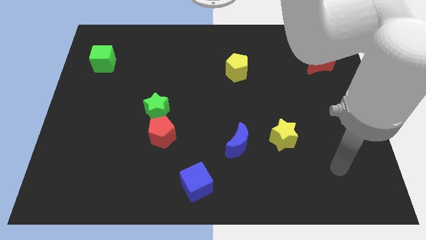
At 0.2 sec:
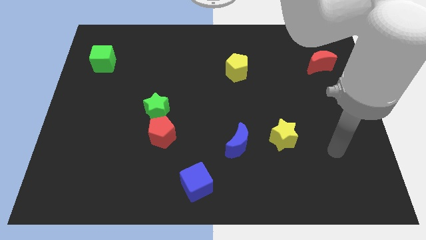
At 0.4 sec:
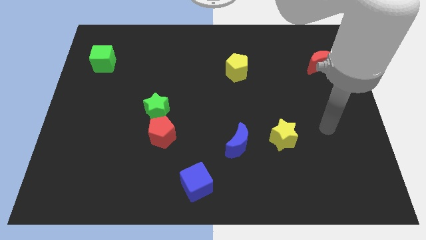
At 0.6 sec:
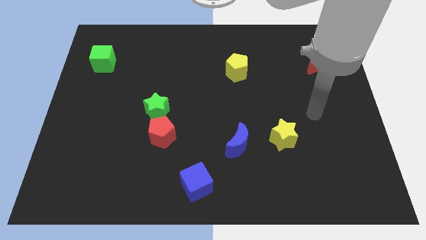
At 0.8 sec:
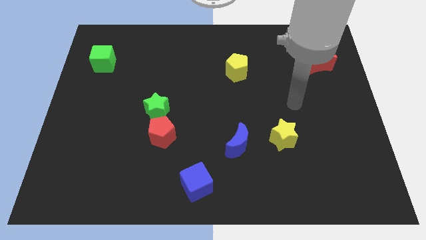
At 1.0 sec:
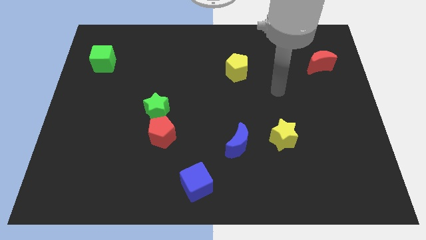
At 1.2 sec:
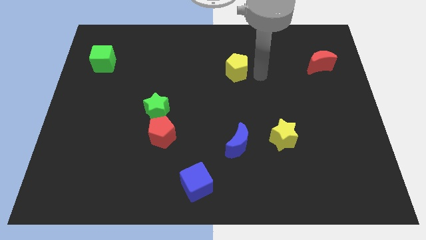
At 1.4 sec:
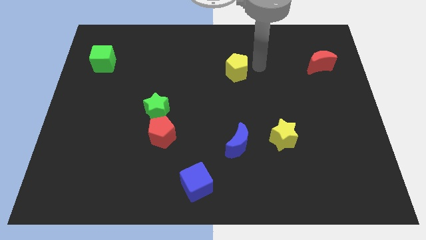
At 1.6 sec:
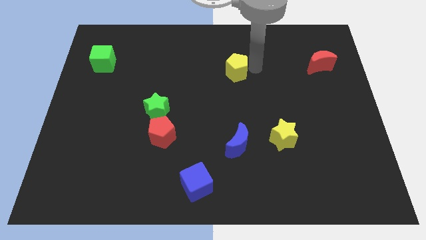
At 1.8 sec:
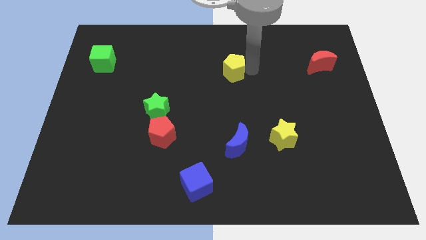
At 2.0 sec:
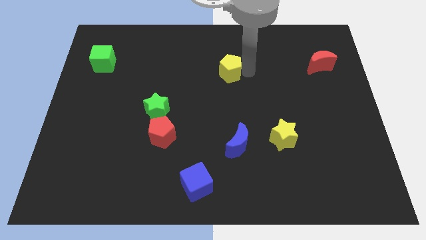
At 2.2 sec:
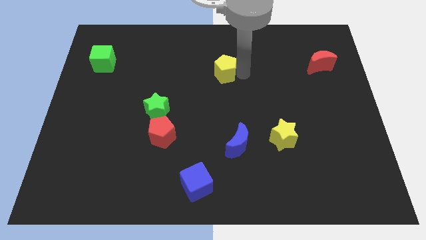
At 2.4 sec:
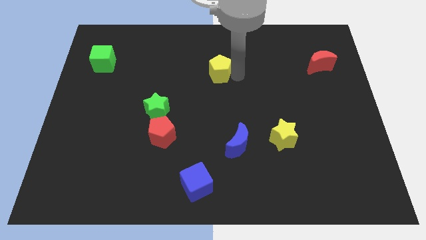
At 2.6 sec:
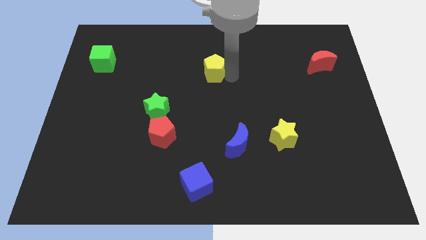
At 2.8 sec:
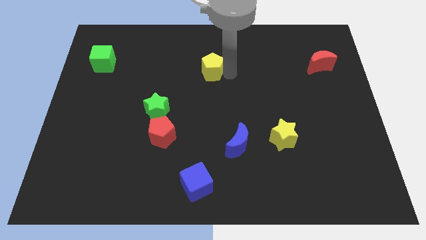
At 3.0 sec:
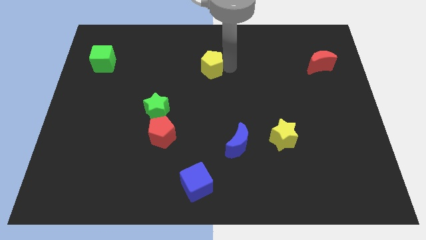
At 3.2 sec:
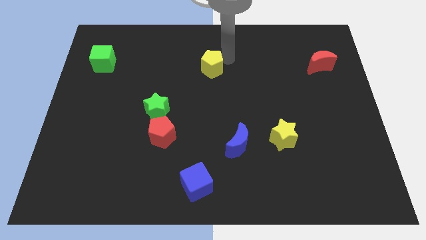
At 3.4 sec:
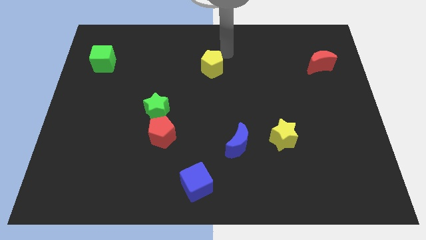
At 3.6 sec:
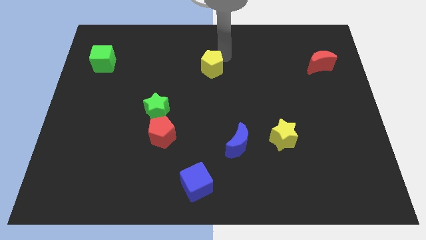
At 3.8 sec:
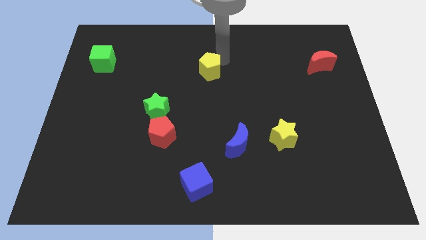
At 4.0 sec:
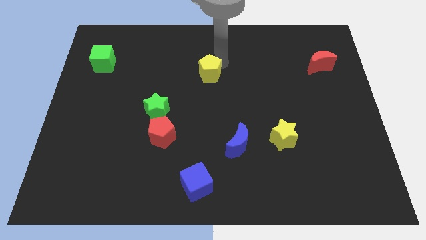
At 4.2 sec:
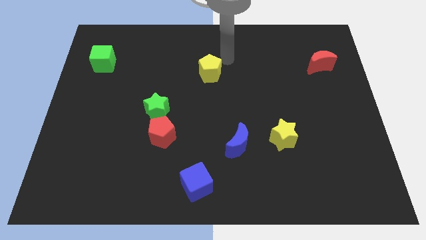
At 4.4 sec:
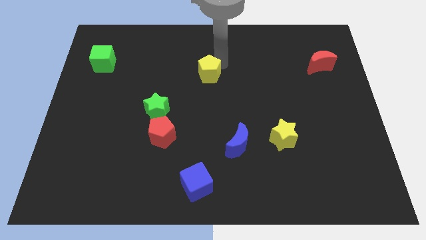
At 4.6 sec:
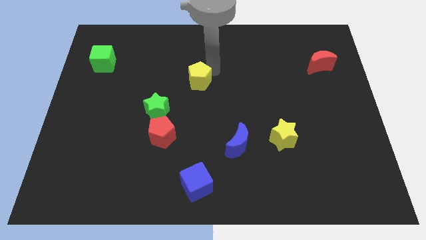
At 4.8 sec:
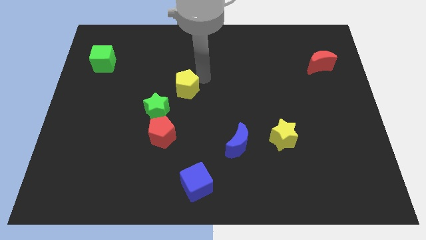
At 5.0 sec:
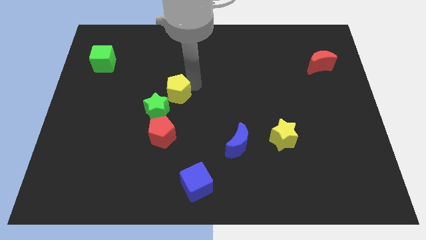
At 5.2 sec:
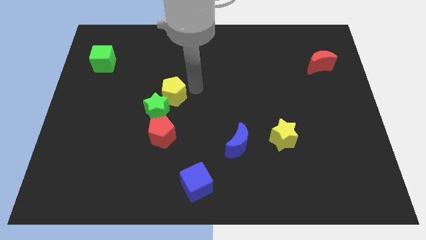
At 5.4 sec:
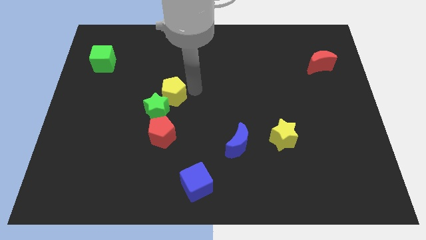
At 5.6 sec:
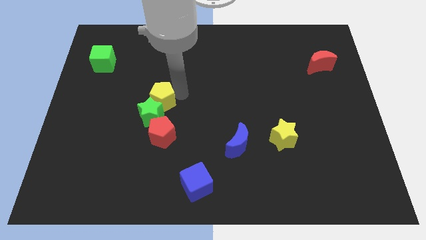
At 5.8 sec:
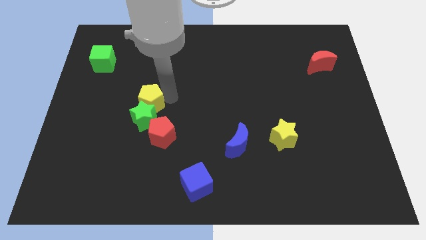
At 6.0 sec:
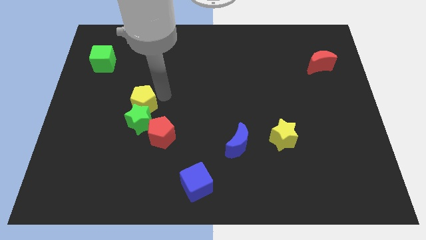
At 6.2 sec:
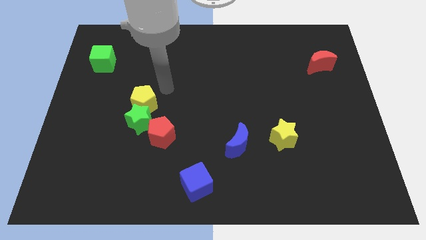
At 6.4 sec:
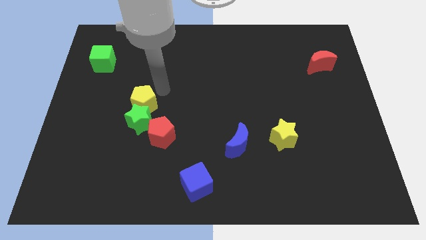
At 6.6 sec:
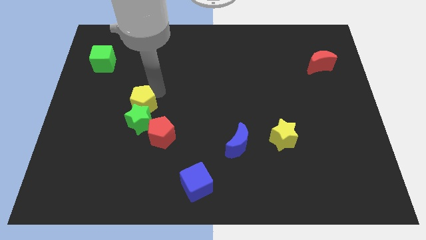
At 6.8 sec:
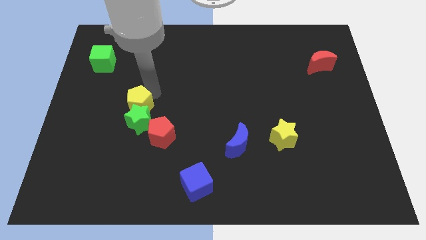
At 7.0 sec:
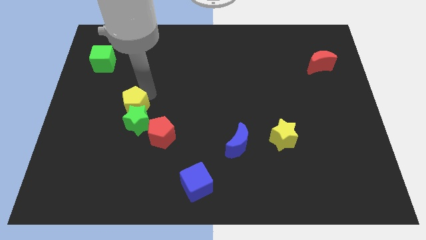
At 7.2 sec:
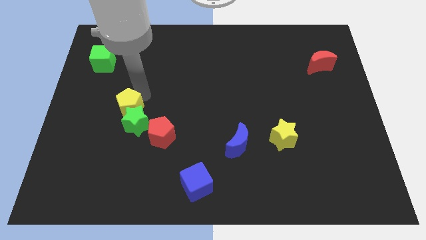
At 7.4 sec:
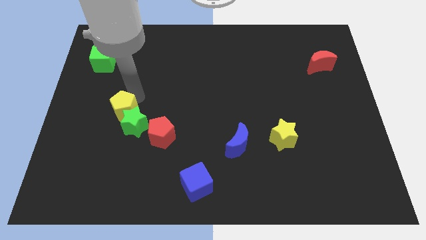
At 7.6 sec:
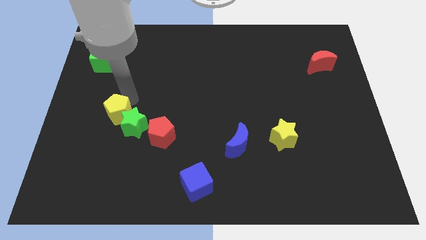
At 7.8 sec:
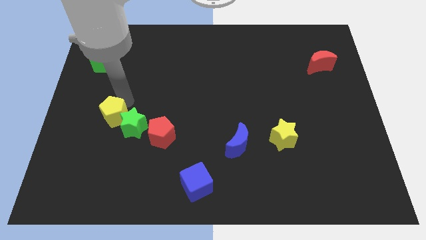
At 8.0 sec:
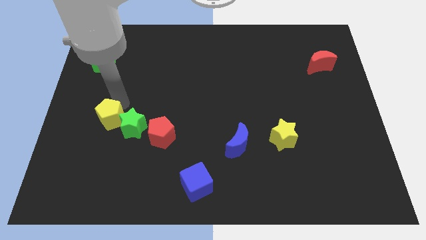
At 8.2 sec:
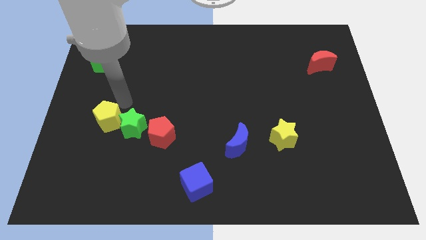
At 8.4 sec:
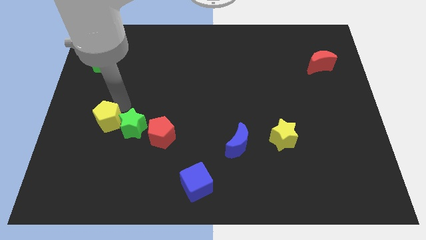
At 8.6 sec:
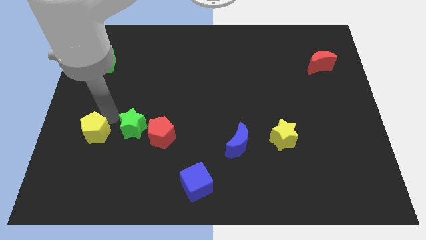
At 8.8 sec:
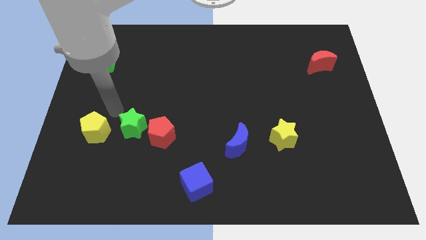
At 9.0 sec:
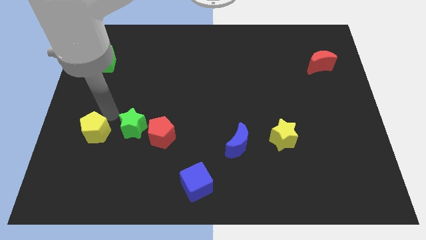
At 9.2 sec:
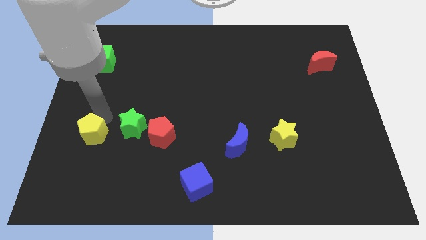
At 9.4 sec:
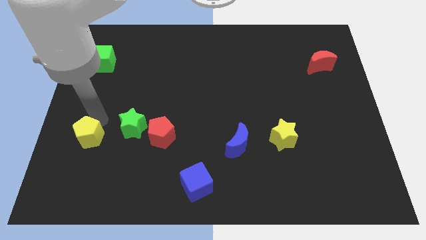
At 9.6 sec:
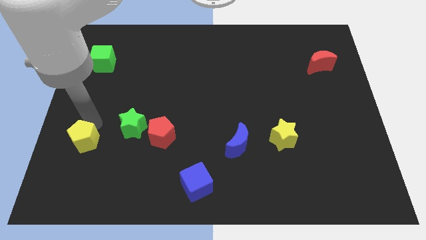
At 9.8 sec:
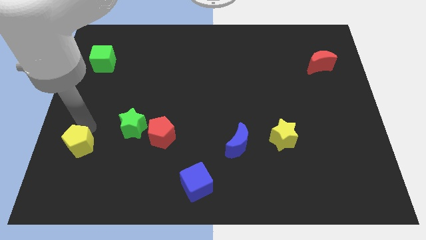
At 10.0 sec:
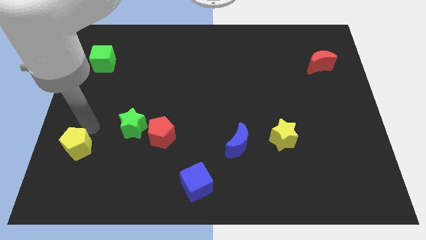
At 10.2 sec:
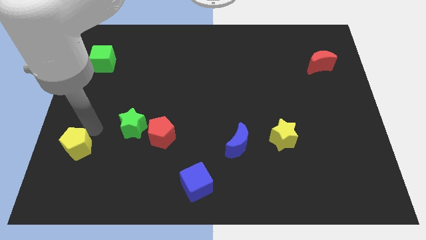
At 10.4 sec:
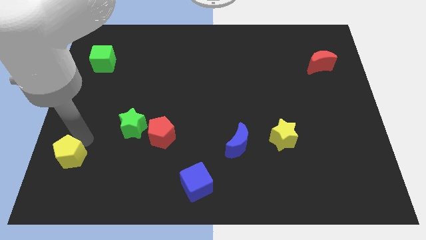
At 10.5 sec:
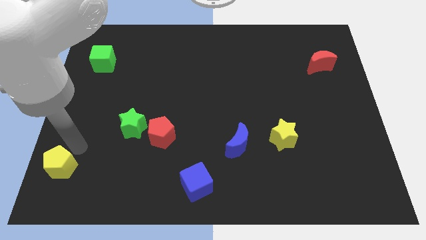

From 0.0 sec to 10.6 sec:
push the yellow pentagon to the bottom left of the board

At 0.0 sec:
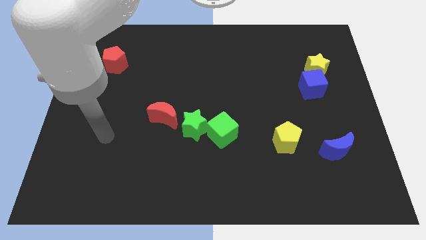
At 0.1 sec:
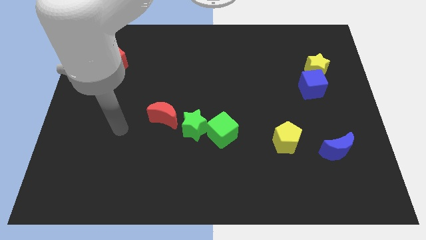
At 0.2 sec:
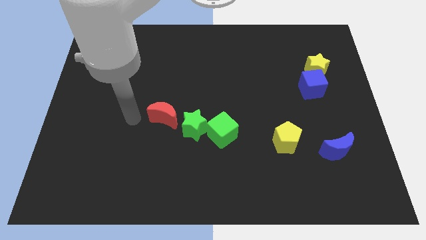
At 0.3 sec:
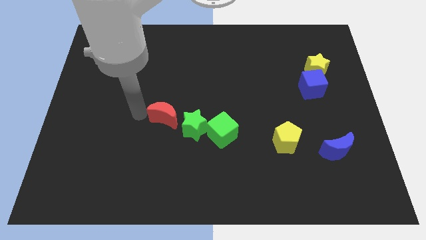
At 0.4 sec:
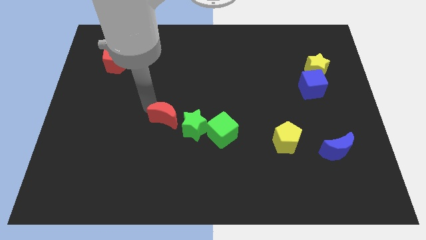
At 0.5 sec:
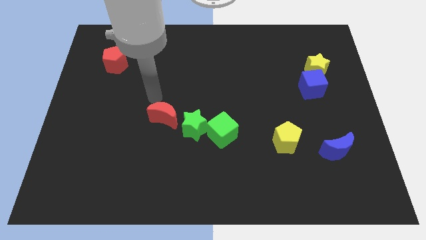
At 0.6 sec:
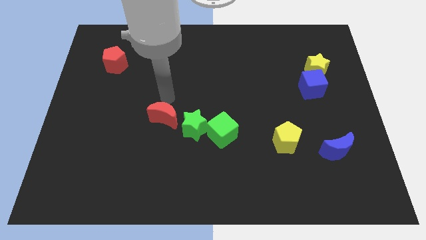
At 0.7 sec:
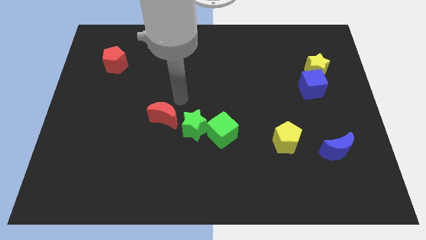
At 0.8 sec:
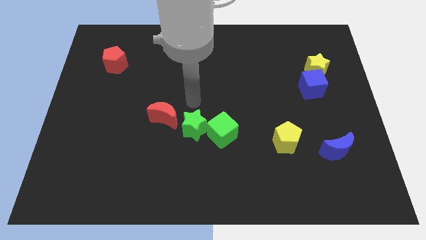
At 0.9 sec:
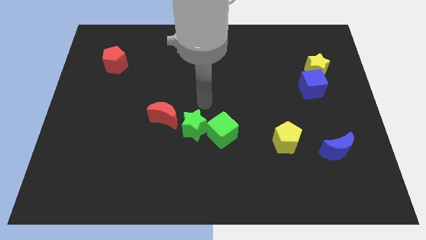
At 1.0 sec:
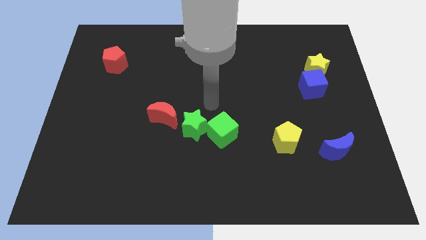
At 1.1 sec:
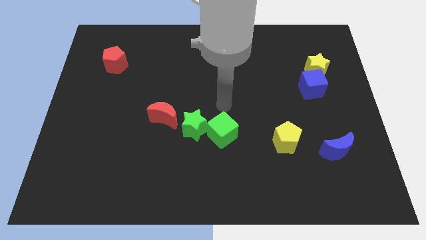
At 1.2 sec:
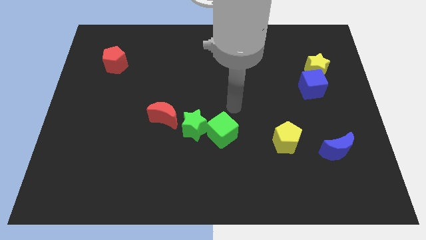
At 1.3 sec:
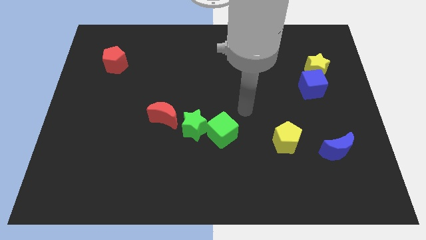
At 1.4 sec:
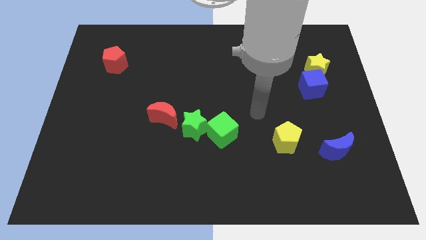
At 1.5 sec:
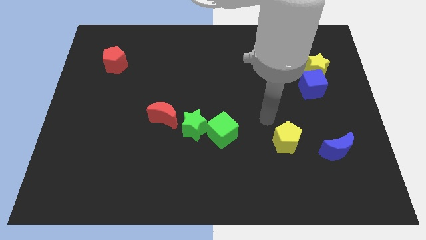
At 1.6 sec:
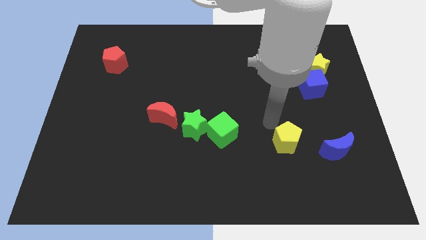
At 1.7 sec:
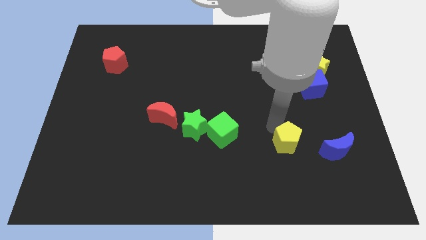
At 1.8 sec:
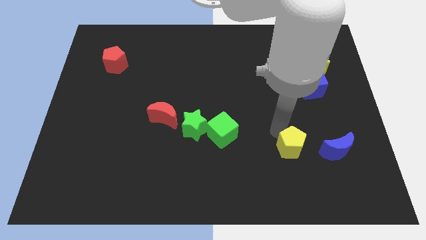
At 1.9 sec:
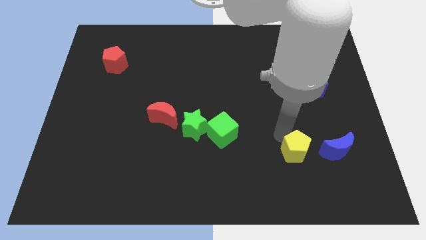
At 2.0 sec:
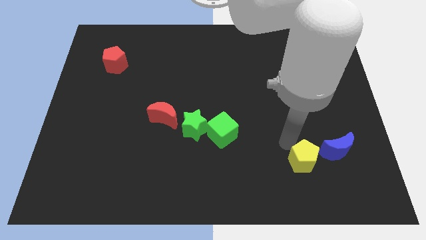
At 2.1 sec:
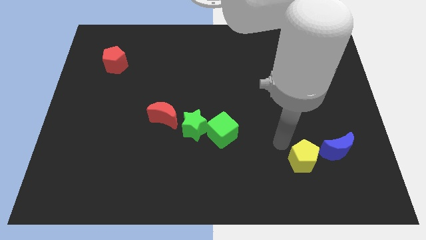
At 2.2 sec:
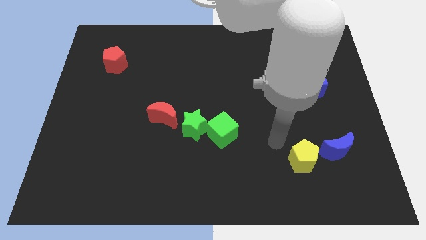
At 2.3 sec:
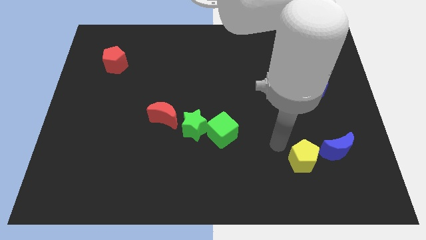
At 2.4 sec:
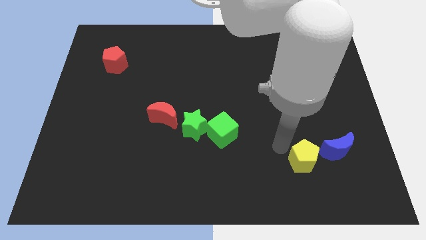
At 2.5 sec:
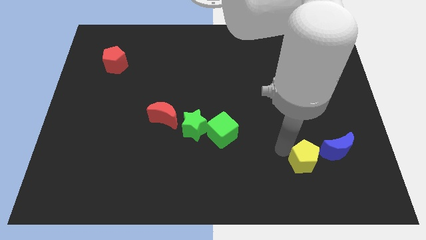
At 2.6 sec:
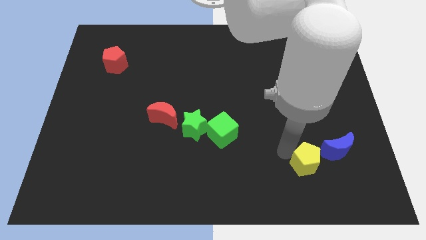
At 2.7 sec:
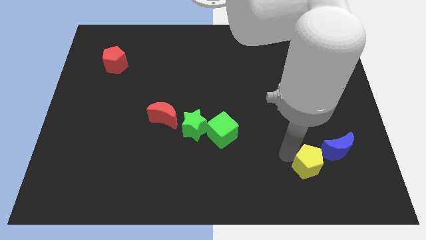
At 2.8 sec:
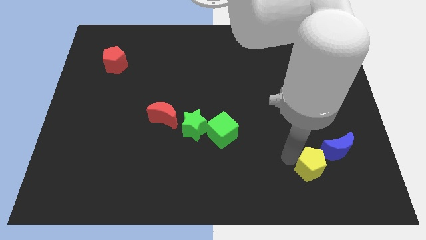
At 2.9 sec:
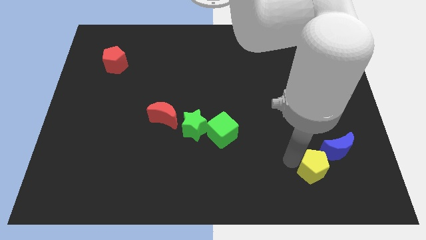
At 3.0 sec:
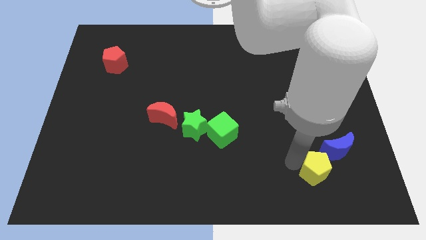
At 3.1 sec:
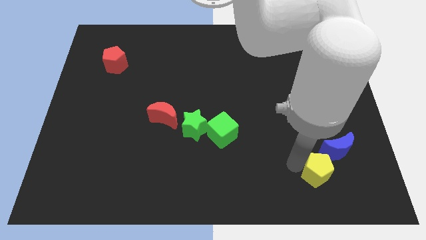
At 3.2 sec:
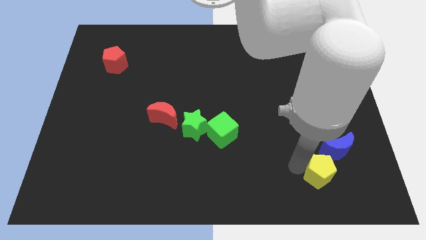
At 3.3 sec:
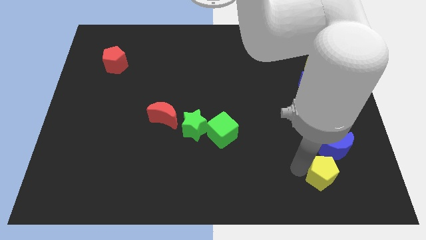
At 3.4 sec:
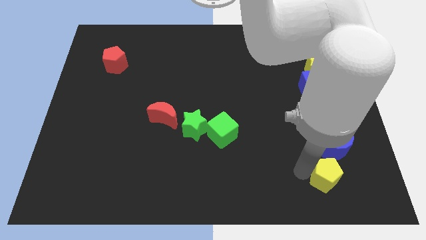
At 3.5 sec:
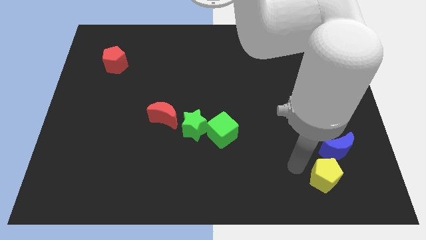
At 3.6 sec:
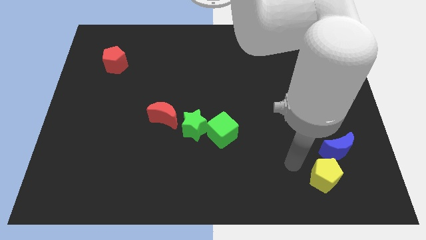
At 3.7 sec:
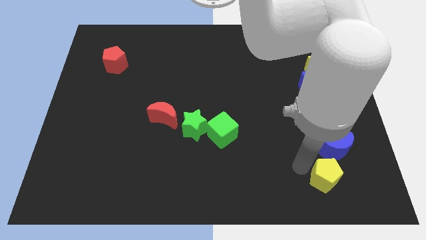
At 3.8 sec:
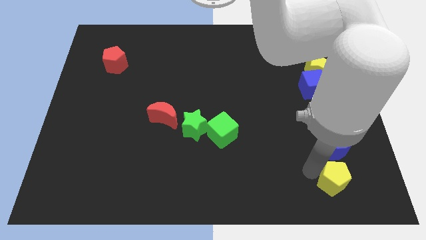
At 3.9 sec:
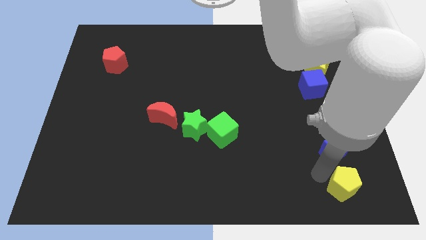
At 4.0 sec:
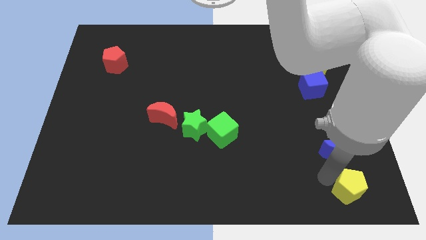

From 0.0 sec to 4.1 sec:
move the yellow pentagon to the bottom right corner
